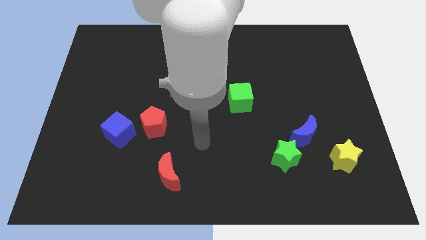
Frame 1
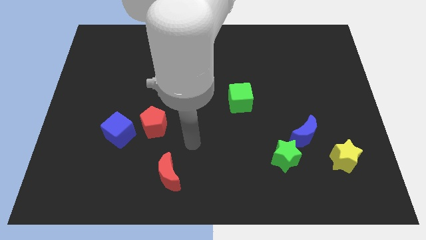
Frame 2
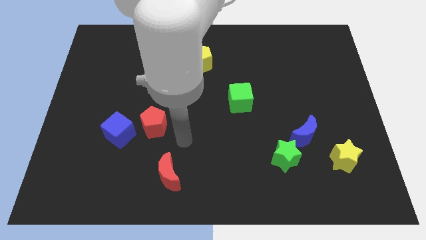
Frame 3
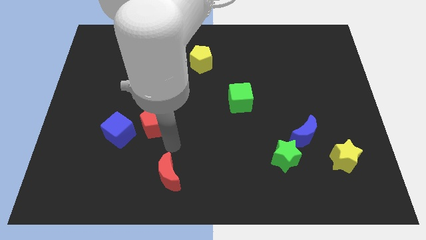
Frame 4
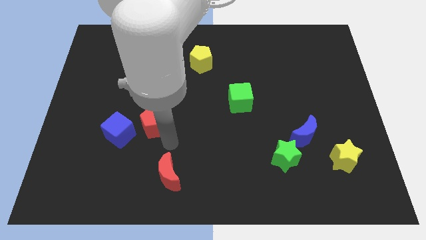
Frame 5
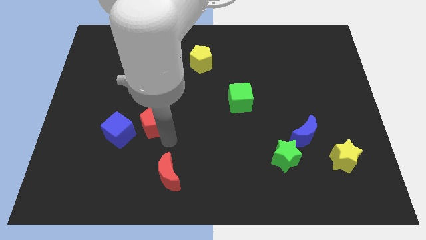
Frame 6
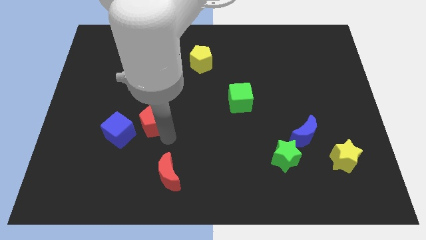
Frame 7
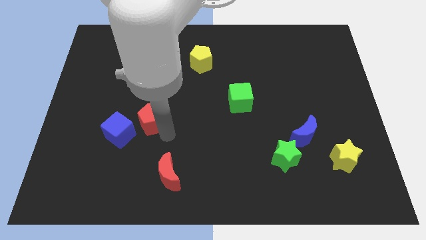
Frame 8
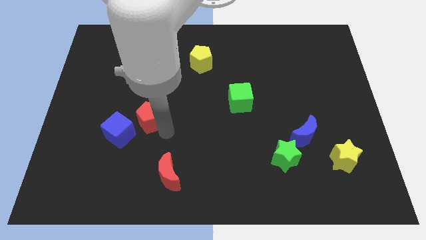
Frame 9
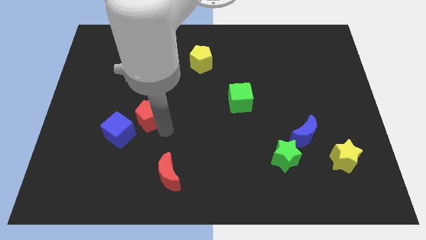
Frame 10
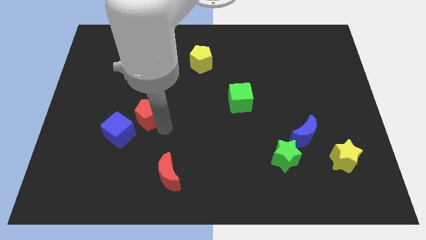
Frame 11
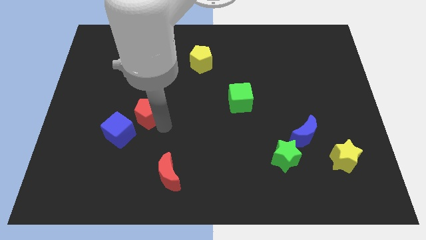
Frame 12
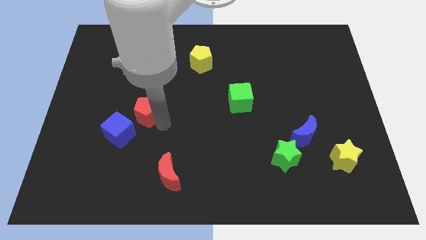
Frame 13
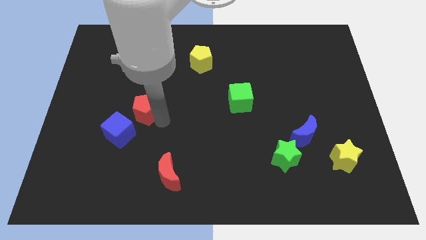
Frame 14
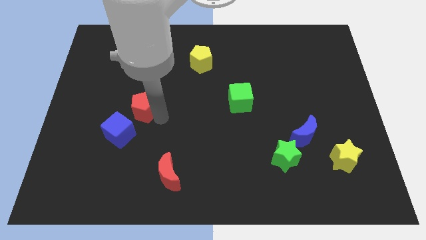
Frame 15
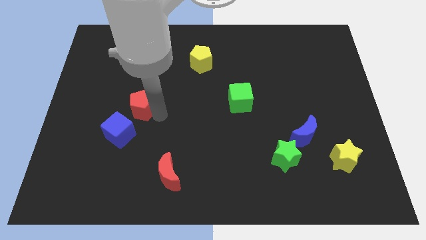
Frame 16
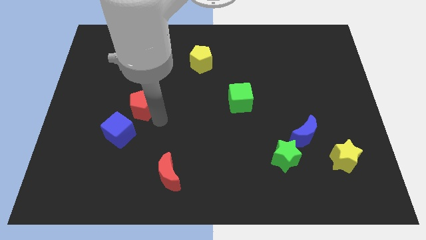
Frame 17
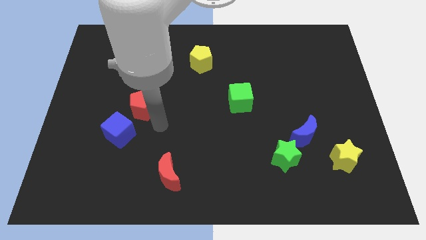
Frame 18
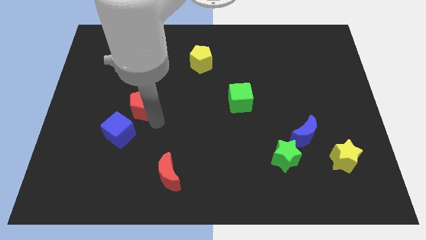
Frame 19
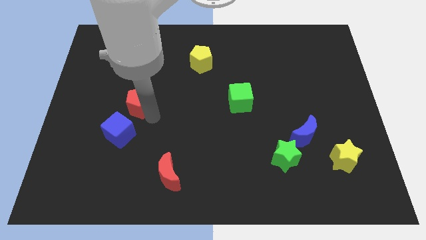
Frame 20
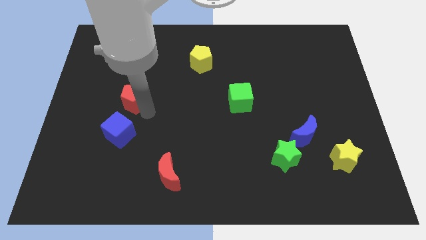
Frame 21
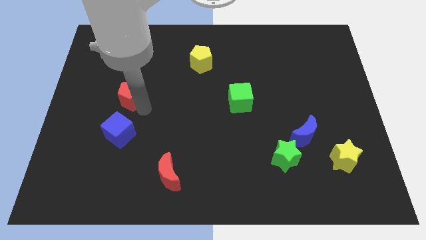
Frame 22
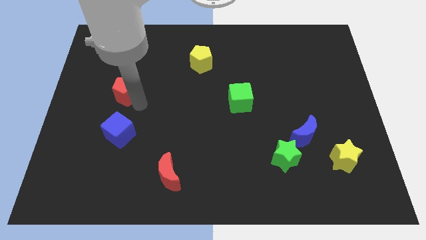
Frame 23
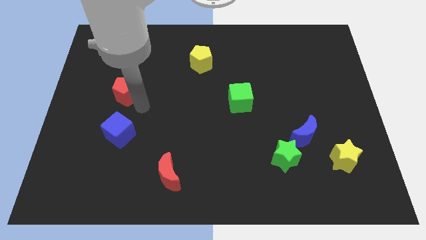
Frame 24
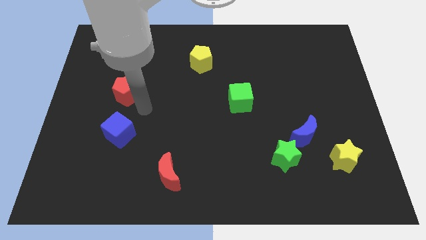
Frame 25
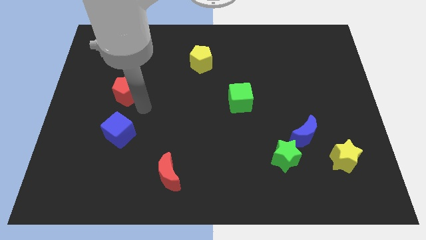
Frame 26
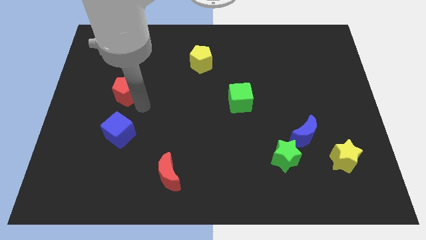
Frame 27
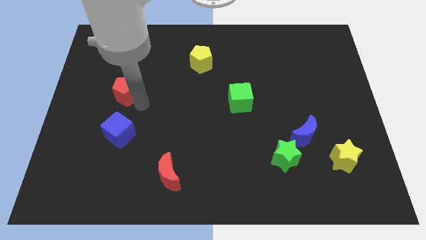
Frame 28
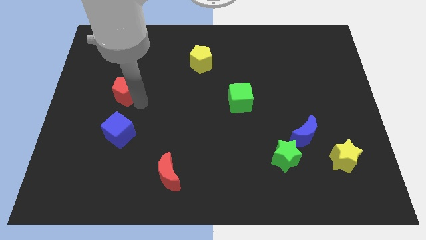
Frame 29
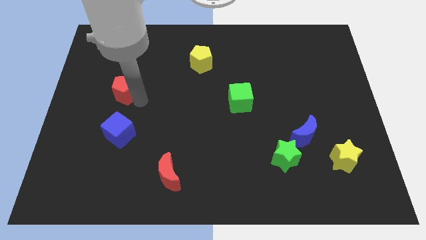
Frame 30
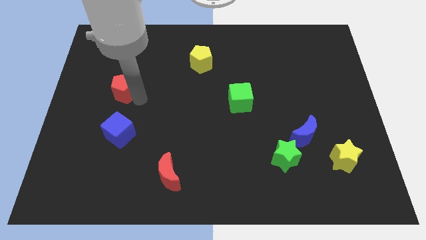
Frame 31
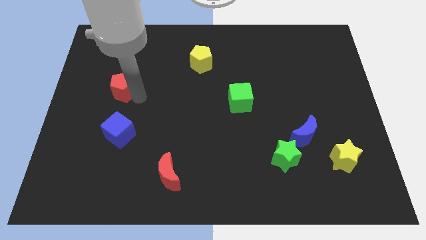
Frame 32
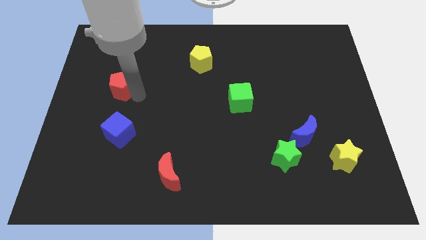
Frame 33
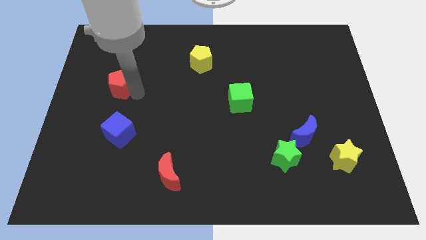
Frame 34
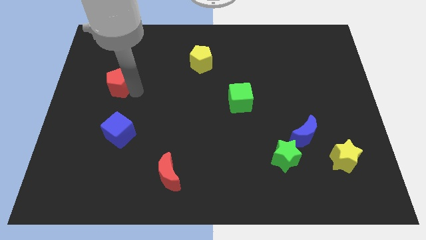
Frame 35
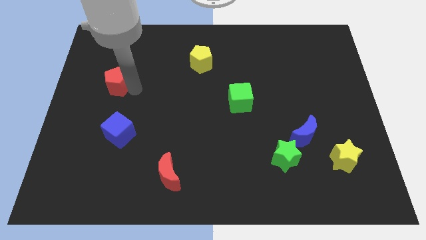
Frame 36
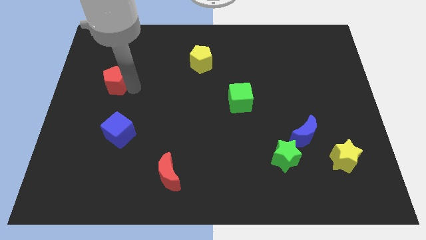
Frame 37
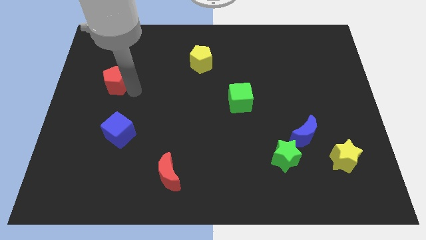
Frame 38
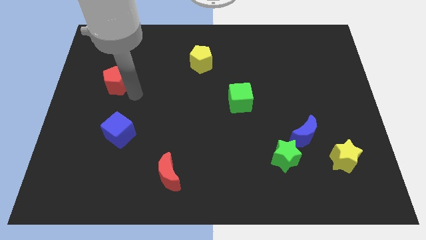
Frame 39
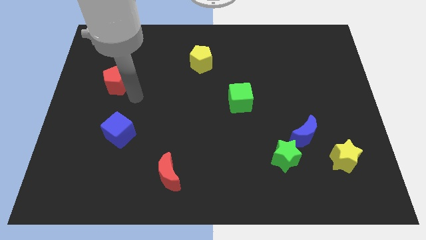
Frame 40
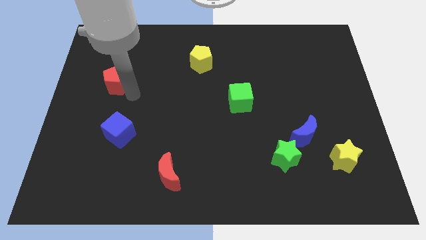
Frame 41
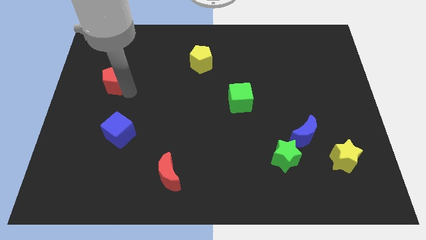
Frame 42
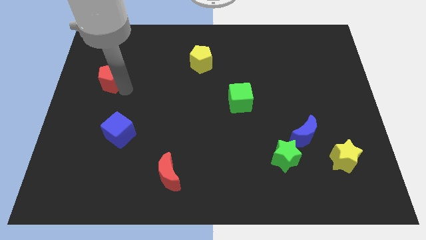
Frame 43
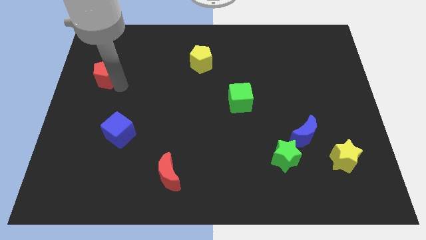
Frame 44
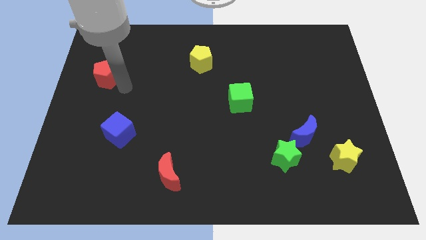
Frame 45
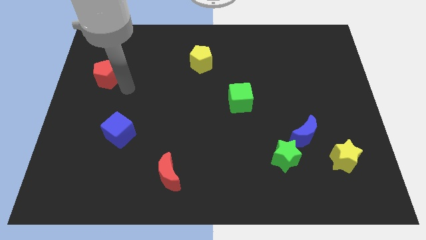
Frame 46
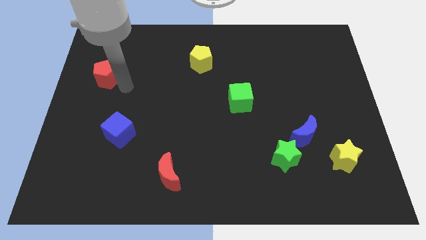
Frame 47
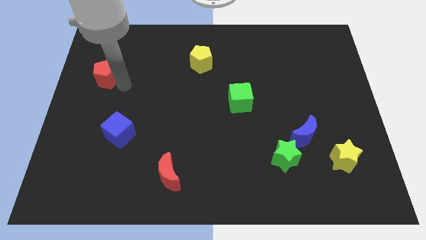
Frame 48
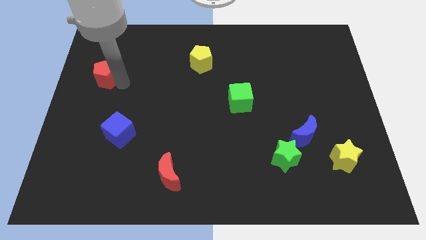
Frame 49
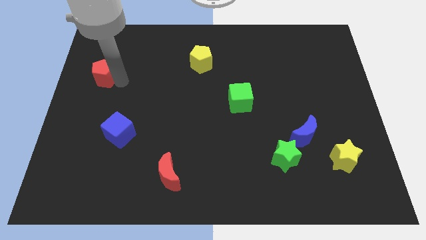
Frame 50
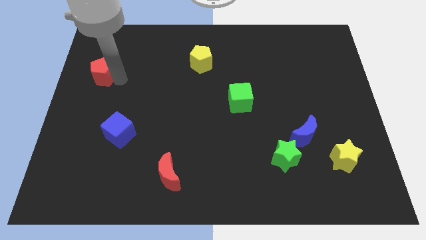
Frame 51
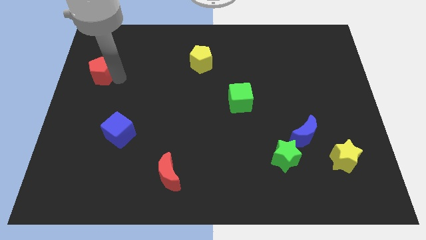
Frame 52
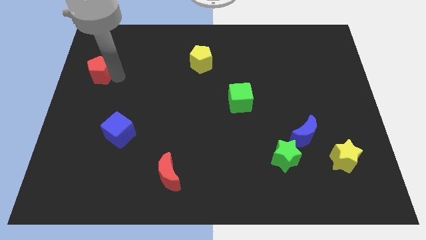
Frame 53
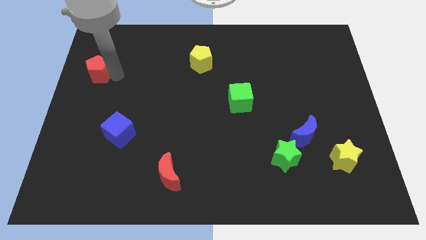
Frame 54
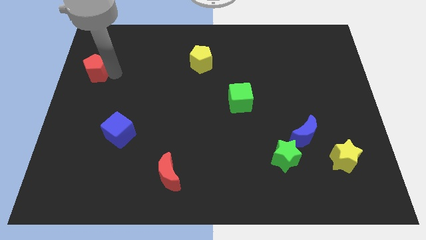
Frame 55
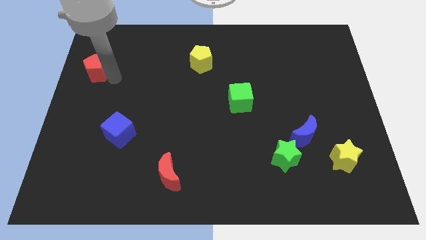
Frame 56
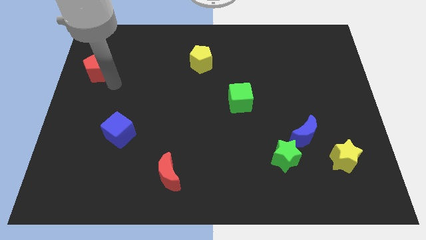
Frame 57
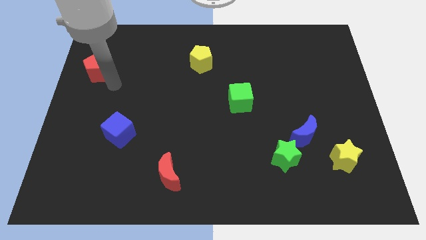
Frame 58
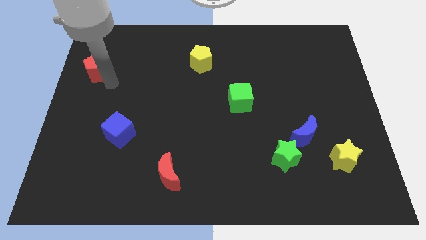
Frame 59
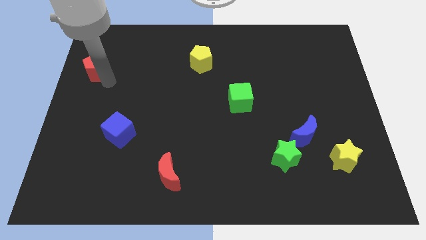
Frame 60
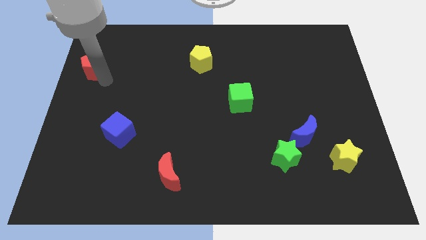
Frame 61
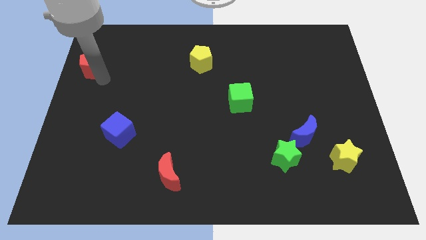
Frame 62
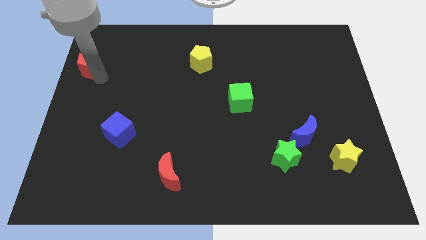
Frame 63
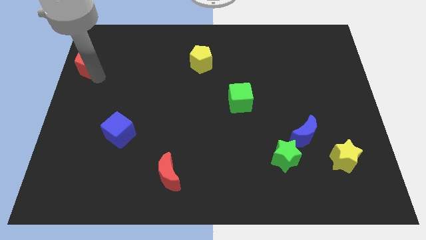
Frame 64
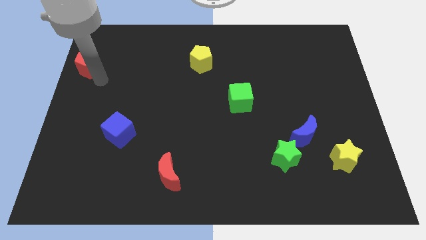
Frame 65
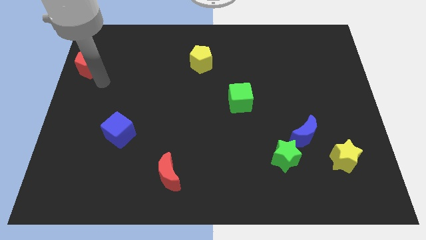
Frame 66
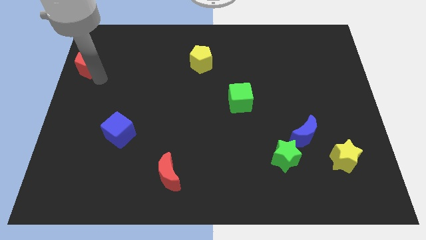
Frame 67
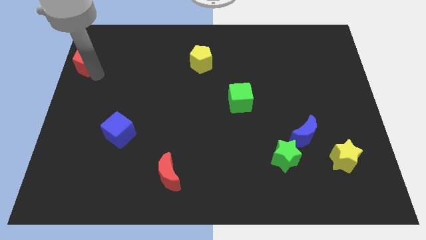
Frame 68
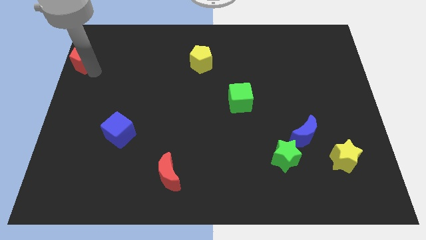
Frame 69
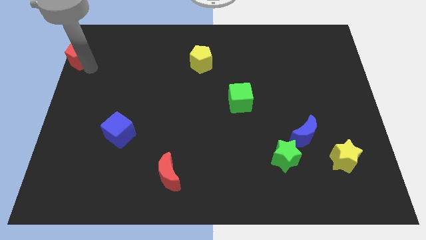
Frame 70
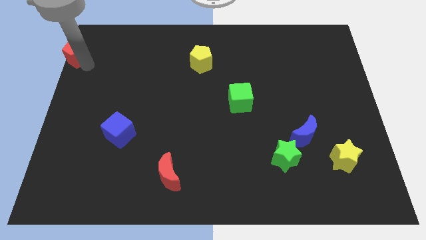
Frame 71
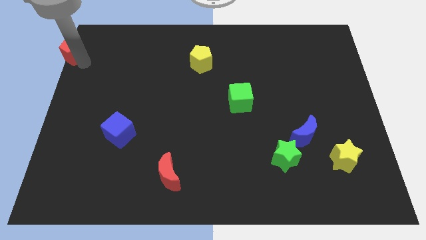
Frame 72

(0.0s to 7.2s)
put the red pentagon to the top left
